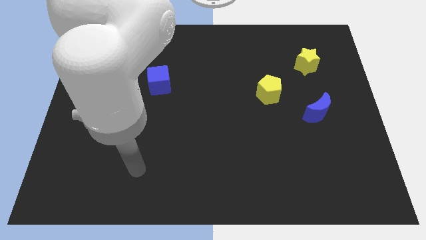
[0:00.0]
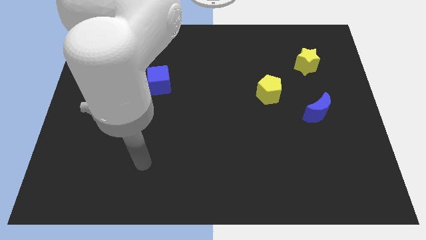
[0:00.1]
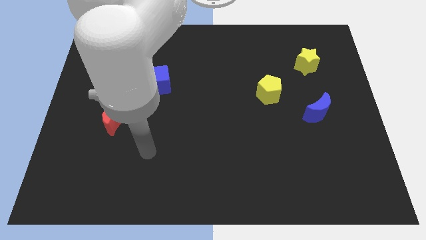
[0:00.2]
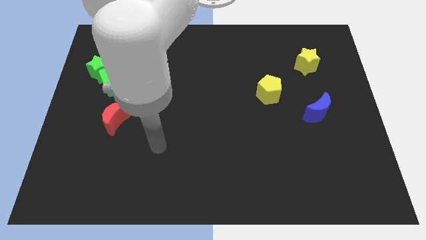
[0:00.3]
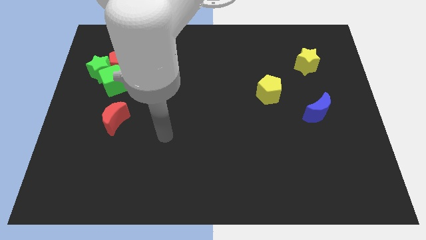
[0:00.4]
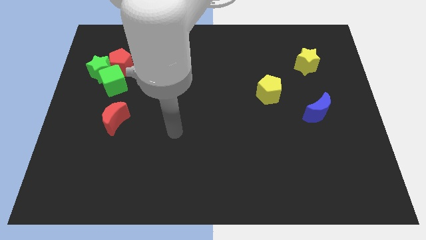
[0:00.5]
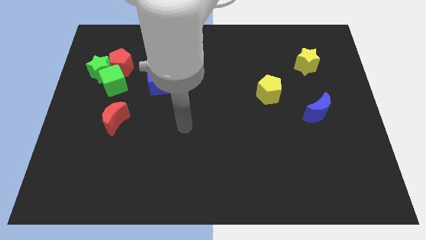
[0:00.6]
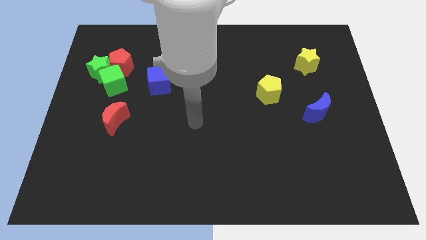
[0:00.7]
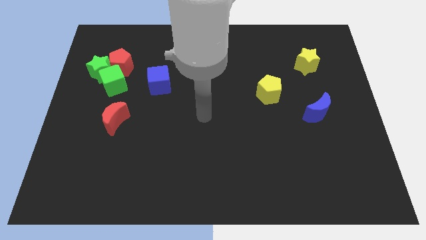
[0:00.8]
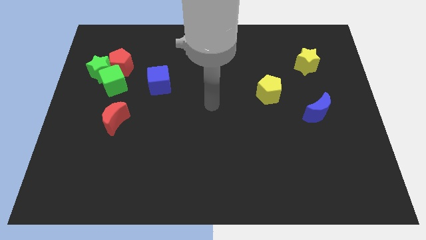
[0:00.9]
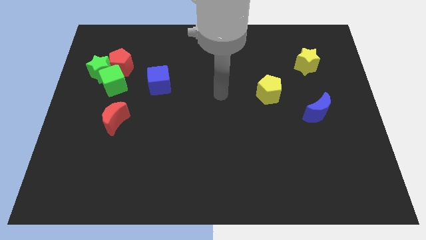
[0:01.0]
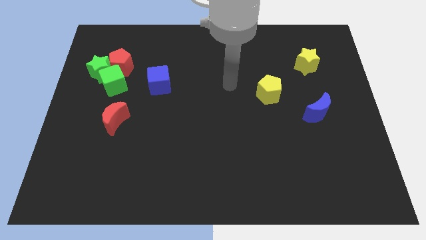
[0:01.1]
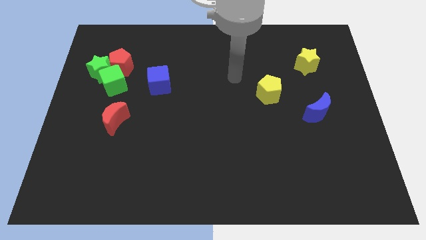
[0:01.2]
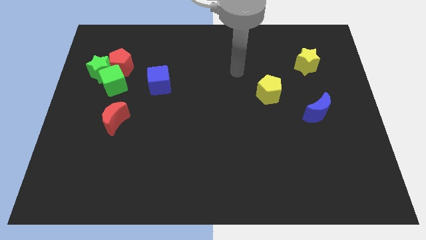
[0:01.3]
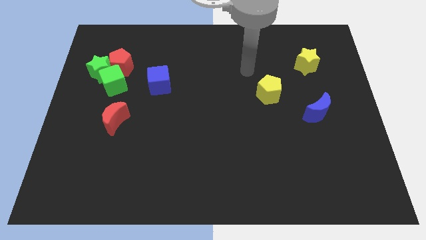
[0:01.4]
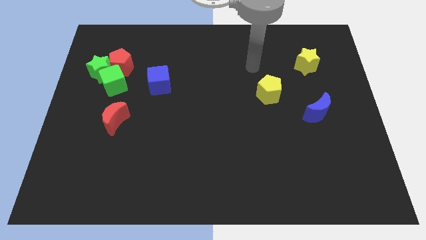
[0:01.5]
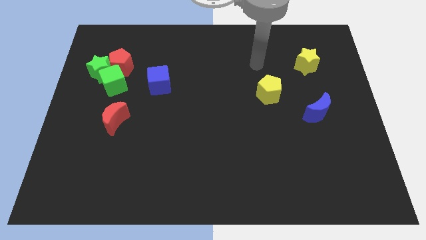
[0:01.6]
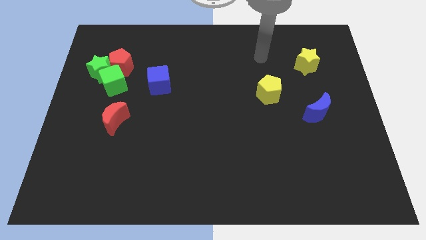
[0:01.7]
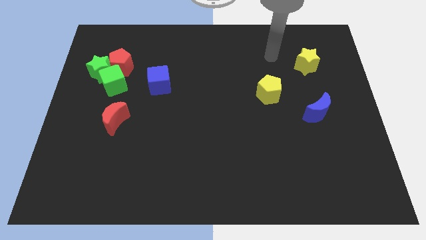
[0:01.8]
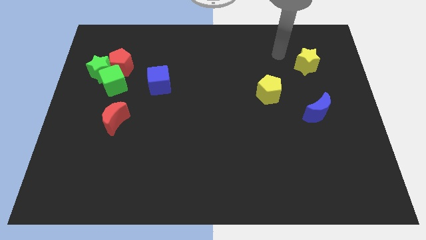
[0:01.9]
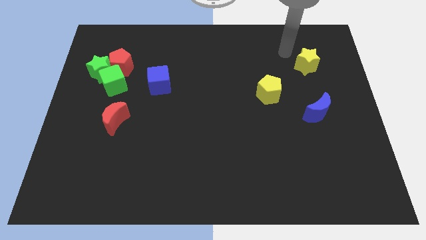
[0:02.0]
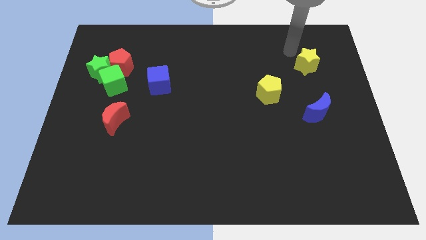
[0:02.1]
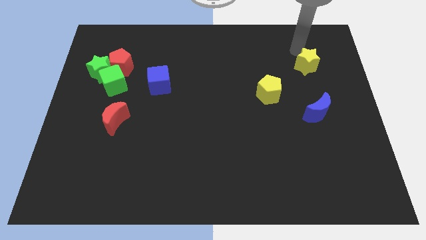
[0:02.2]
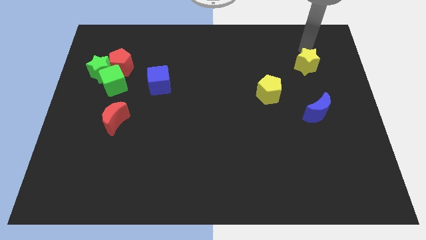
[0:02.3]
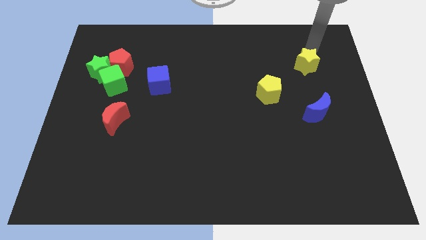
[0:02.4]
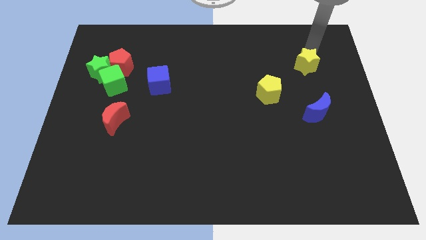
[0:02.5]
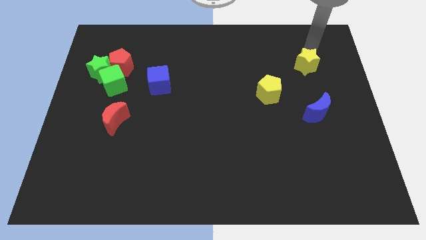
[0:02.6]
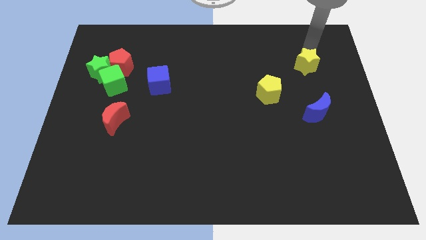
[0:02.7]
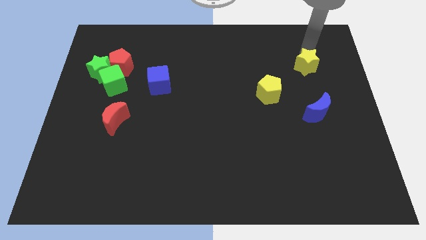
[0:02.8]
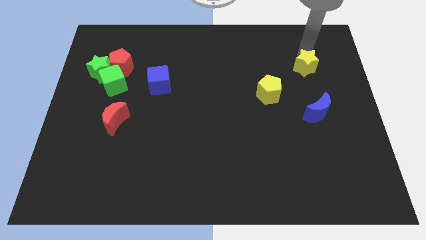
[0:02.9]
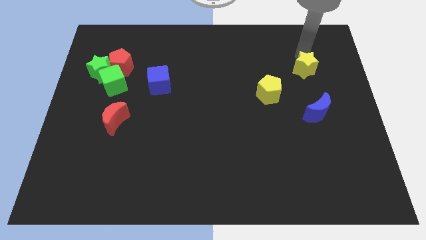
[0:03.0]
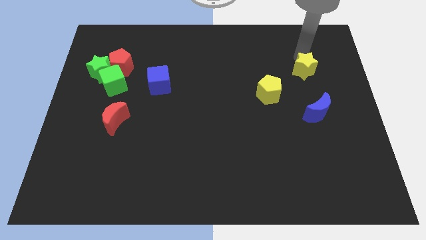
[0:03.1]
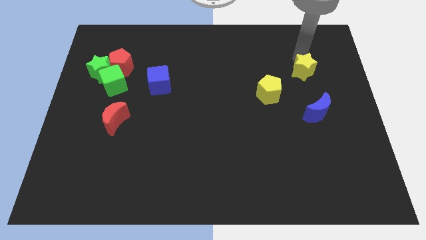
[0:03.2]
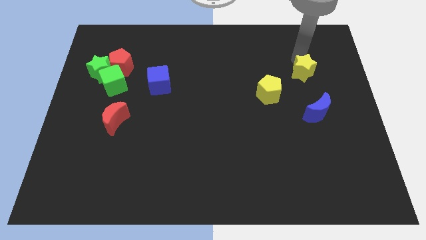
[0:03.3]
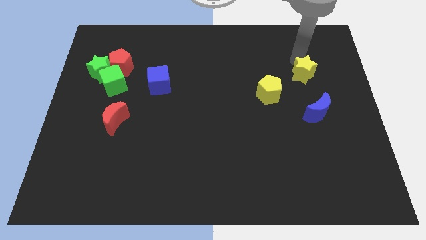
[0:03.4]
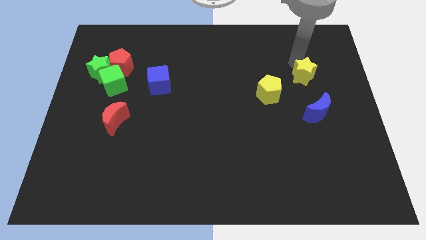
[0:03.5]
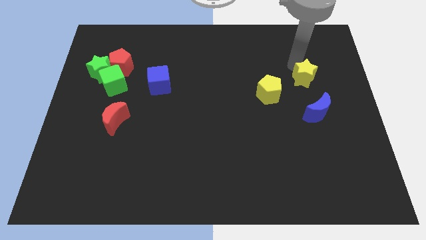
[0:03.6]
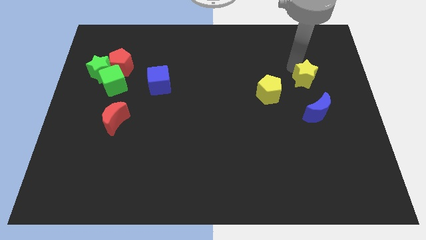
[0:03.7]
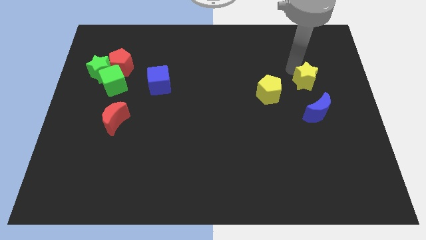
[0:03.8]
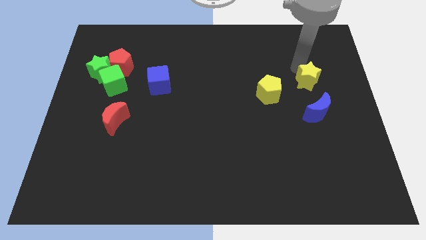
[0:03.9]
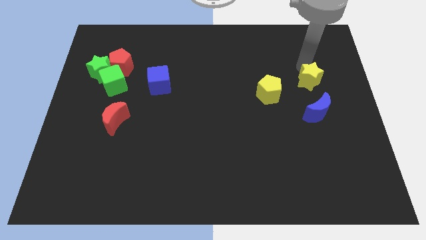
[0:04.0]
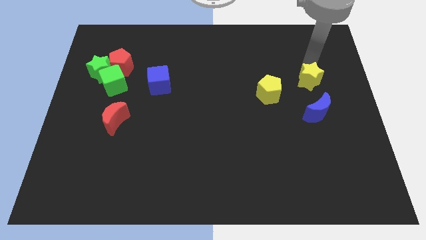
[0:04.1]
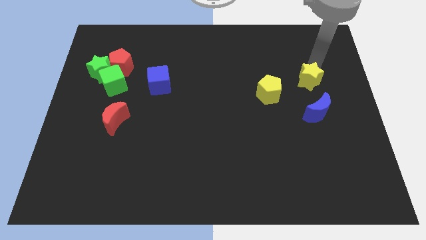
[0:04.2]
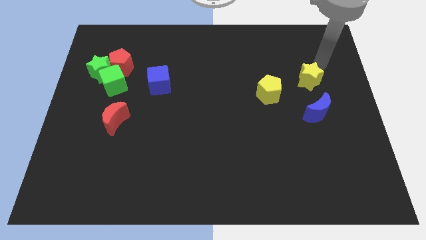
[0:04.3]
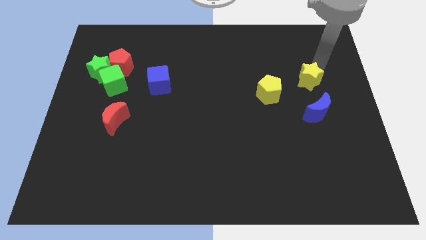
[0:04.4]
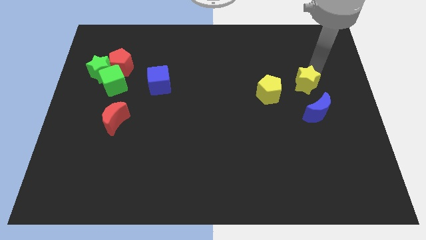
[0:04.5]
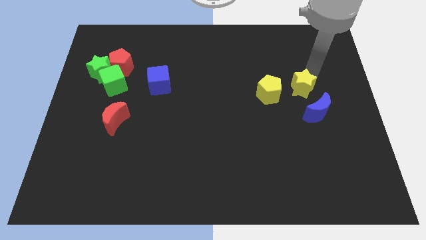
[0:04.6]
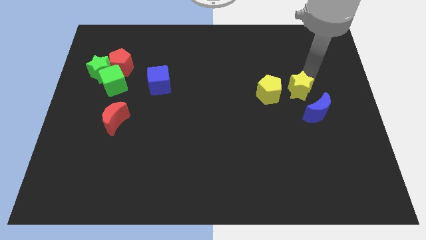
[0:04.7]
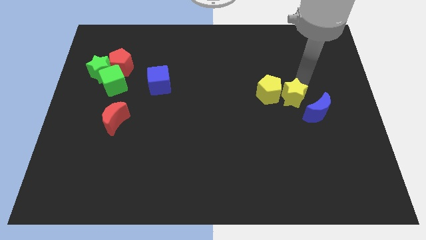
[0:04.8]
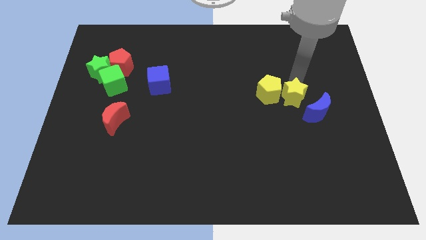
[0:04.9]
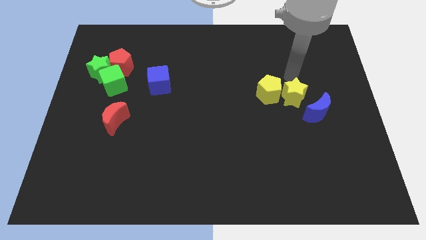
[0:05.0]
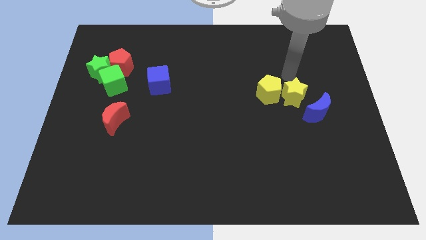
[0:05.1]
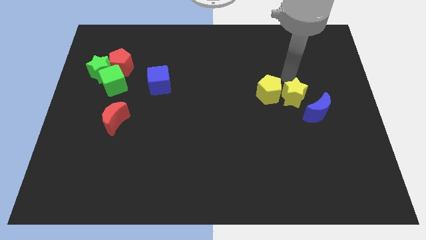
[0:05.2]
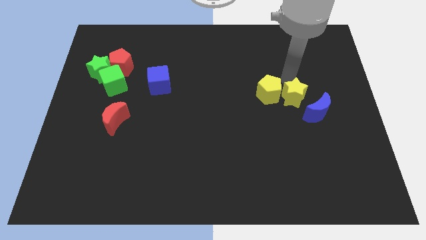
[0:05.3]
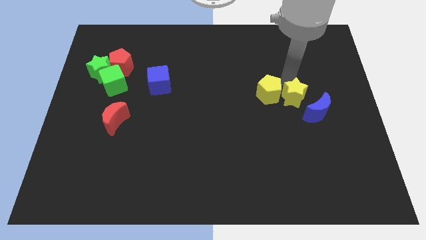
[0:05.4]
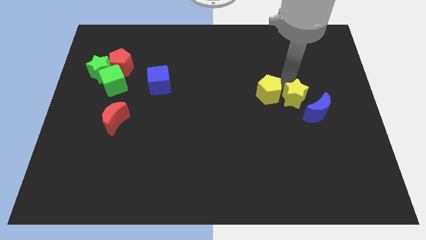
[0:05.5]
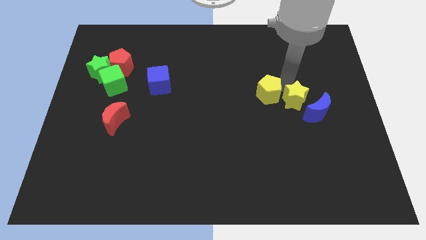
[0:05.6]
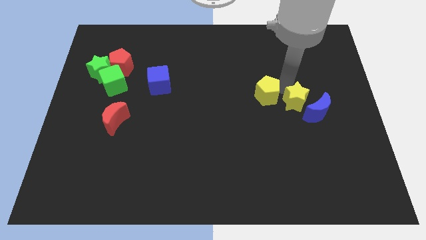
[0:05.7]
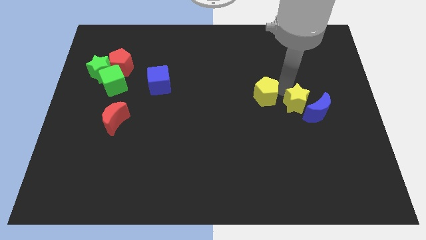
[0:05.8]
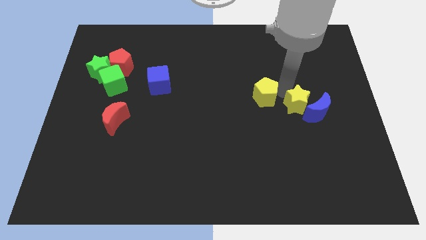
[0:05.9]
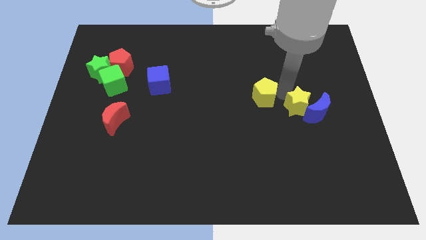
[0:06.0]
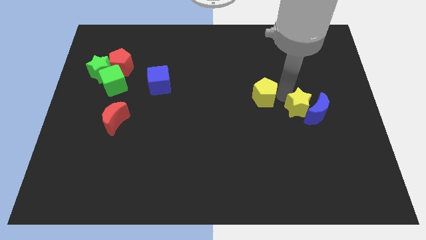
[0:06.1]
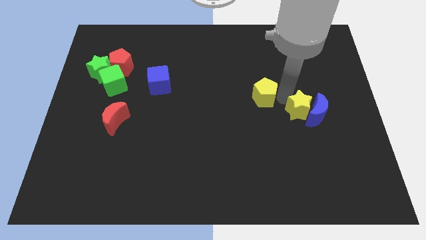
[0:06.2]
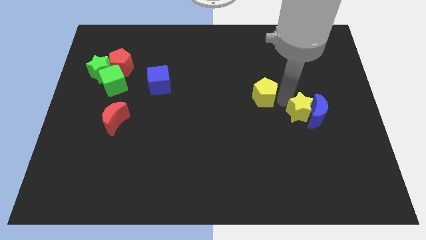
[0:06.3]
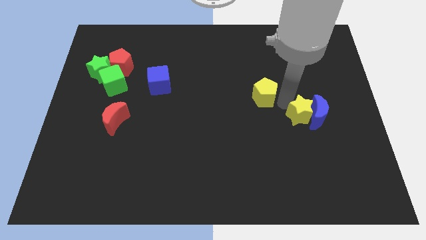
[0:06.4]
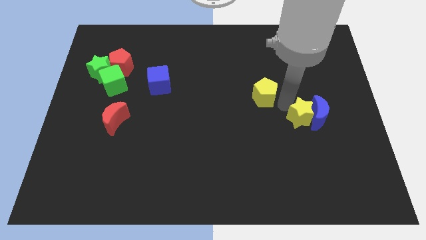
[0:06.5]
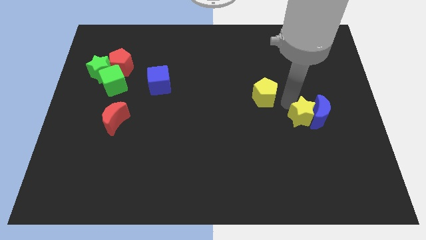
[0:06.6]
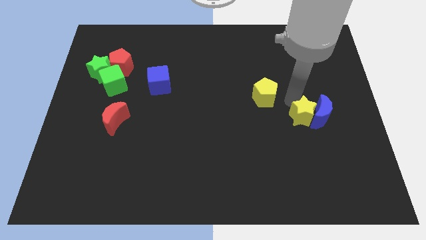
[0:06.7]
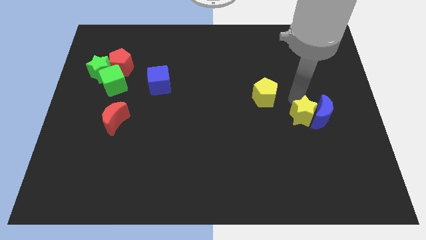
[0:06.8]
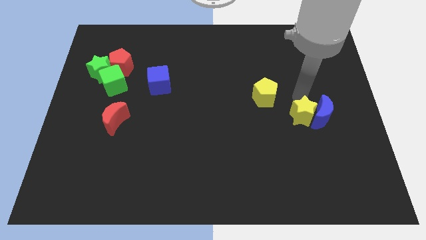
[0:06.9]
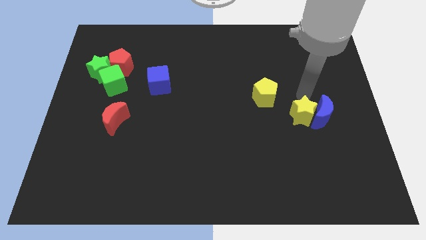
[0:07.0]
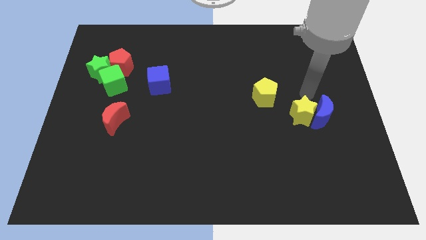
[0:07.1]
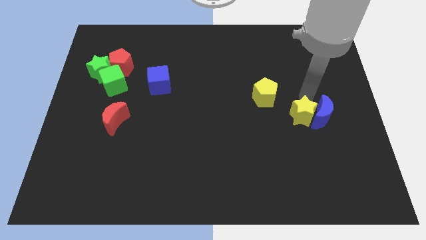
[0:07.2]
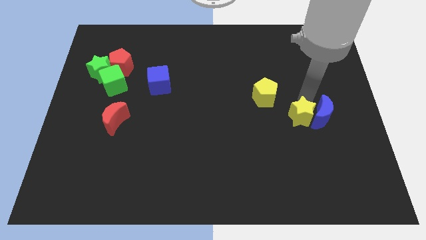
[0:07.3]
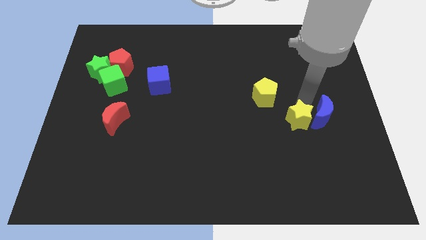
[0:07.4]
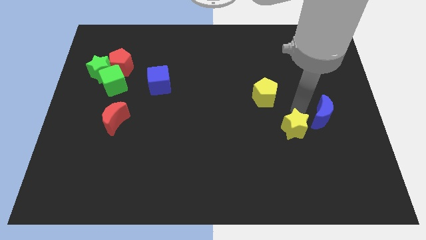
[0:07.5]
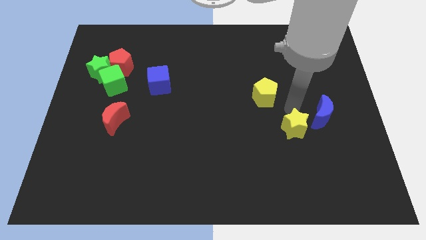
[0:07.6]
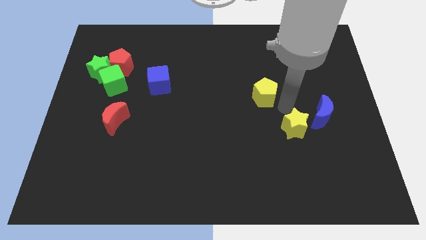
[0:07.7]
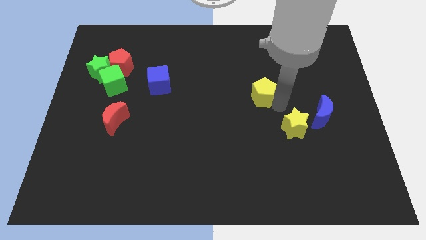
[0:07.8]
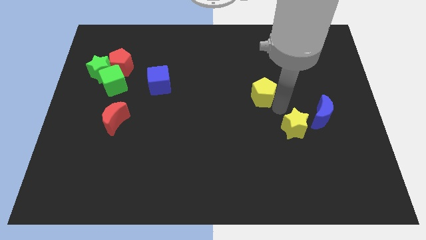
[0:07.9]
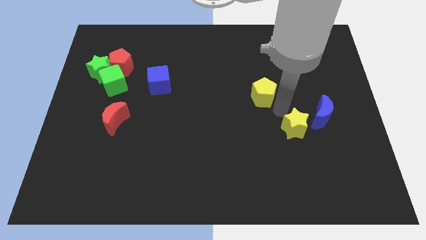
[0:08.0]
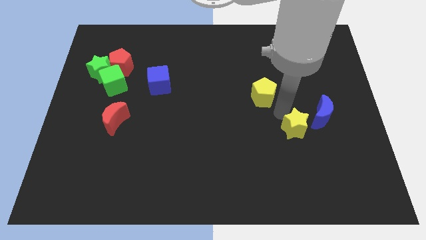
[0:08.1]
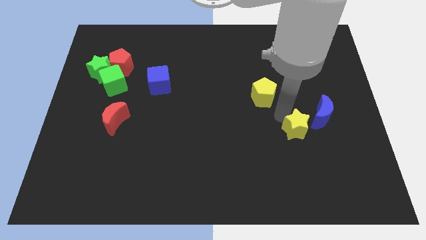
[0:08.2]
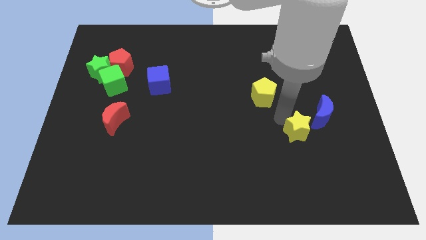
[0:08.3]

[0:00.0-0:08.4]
slide the yellow star down
